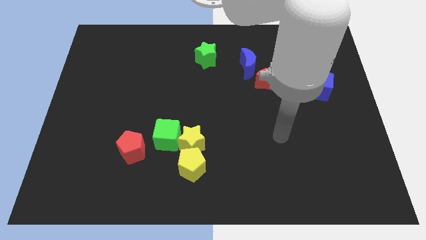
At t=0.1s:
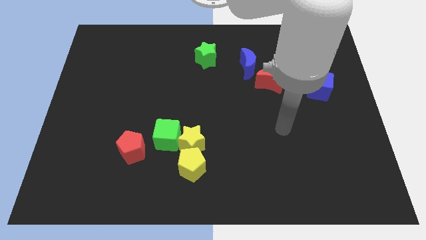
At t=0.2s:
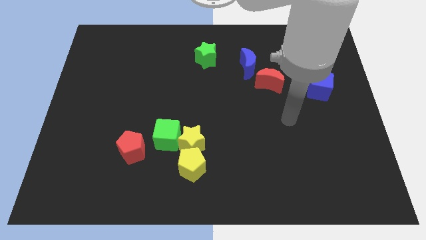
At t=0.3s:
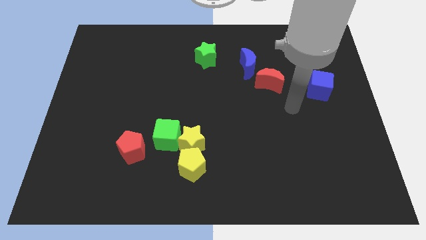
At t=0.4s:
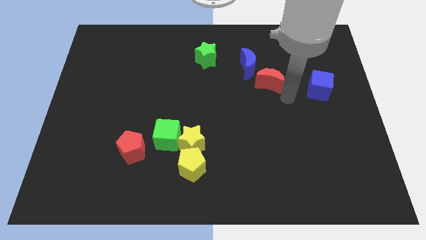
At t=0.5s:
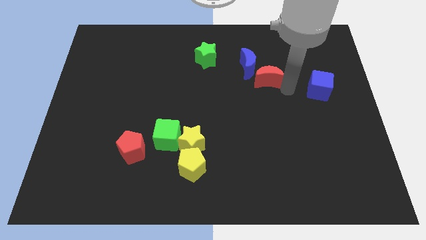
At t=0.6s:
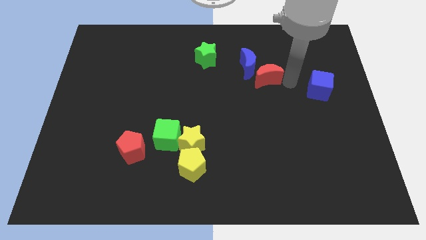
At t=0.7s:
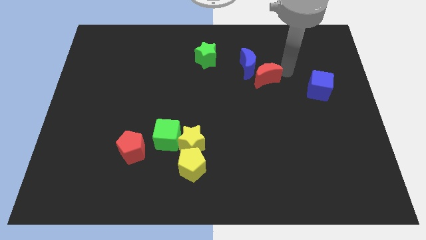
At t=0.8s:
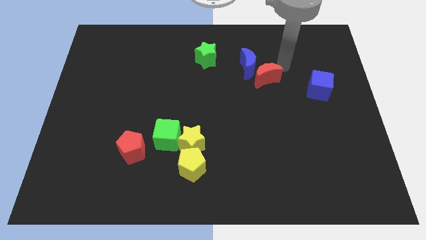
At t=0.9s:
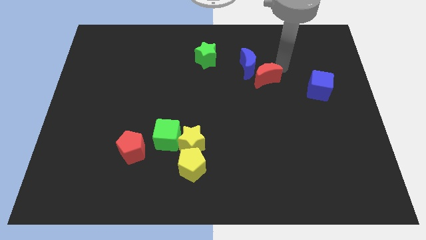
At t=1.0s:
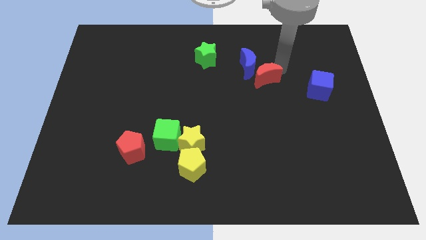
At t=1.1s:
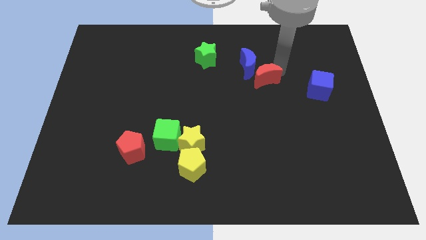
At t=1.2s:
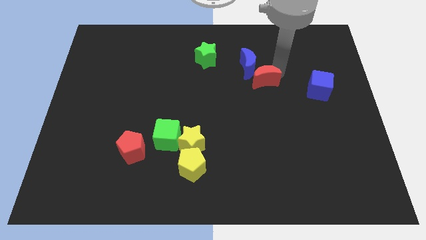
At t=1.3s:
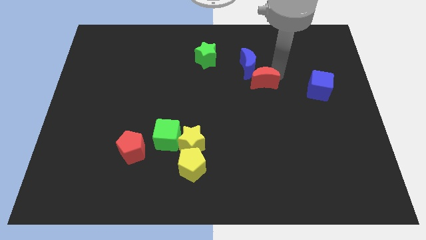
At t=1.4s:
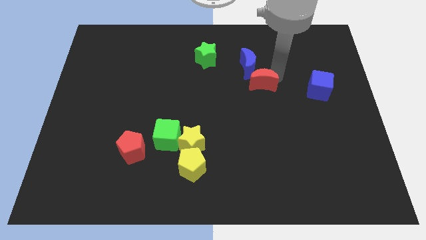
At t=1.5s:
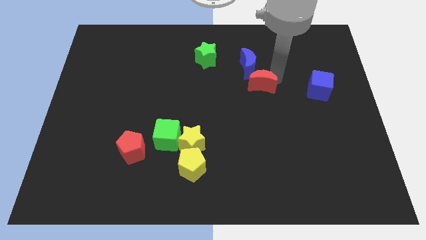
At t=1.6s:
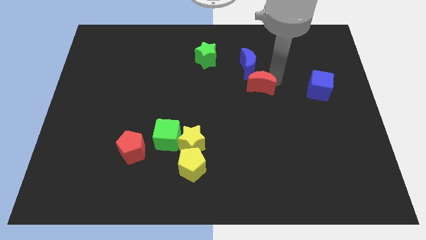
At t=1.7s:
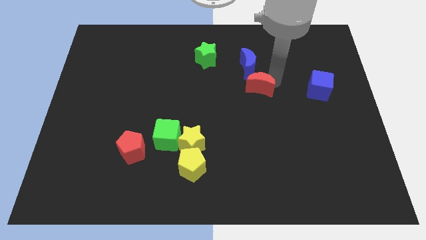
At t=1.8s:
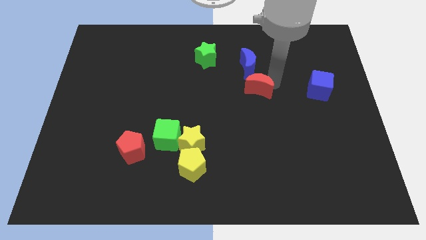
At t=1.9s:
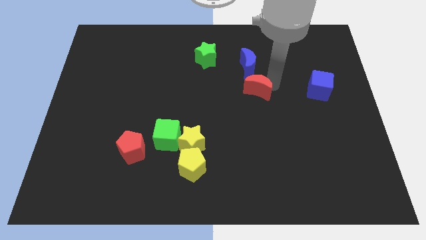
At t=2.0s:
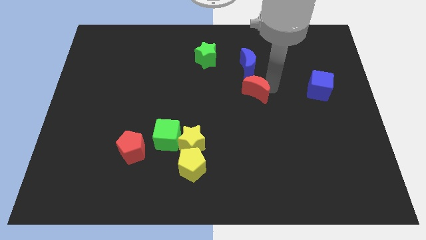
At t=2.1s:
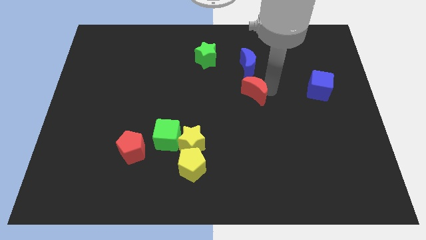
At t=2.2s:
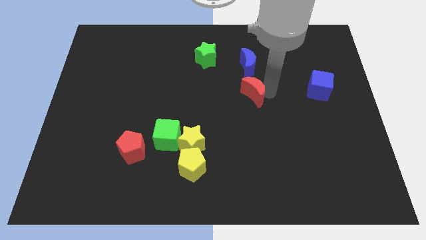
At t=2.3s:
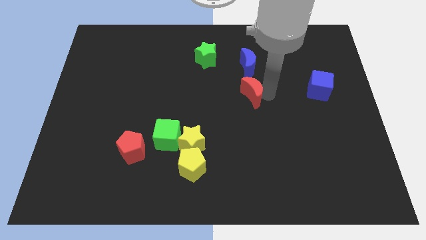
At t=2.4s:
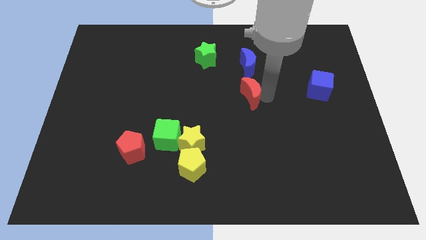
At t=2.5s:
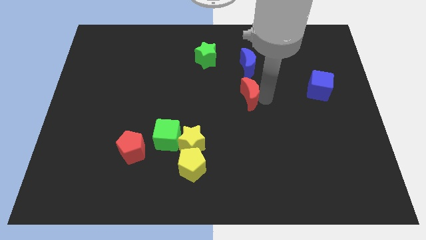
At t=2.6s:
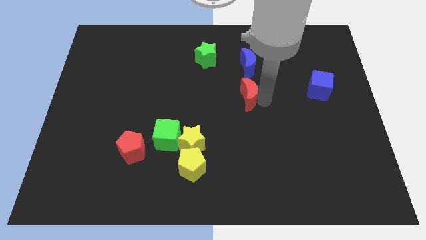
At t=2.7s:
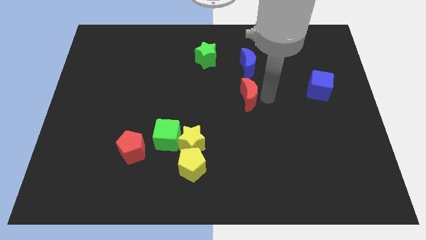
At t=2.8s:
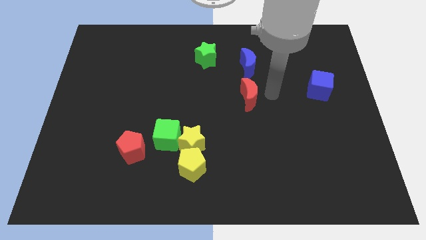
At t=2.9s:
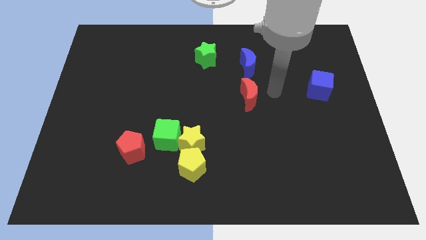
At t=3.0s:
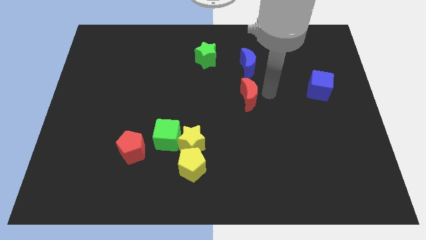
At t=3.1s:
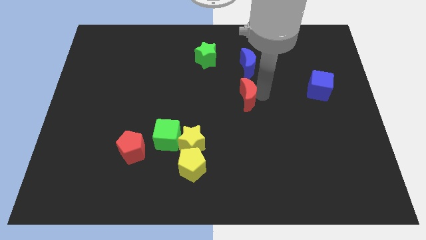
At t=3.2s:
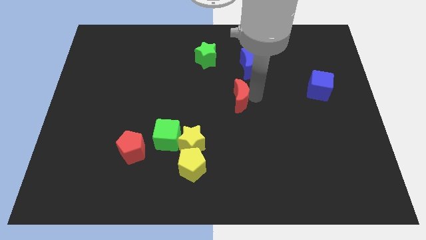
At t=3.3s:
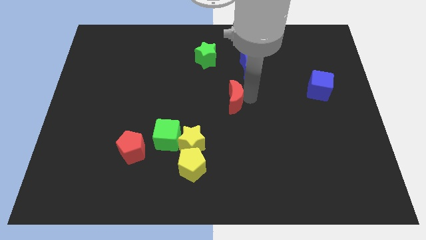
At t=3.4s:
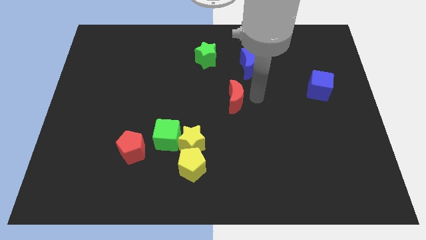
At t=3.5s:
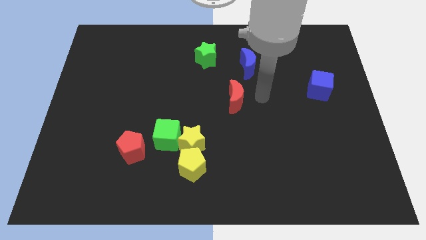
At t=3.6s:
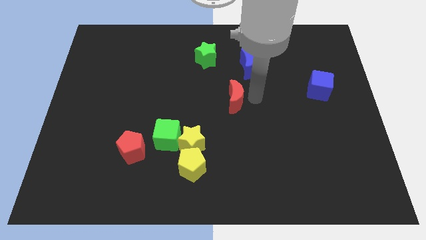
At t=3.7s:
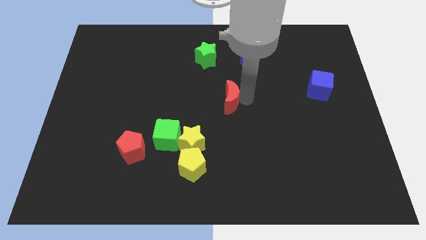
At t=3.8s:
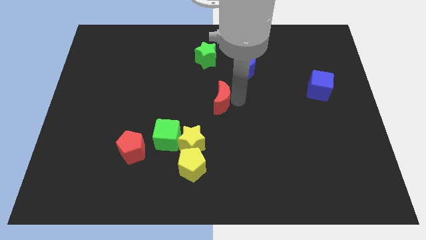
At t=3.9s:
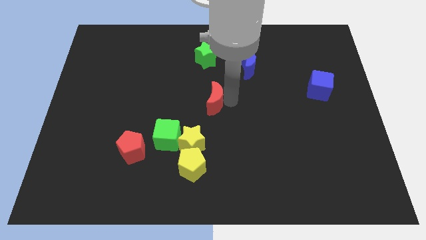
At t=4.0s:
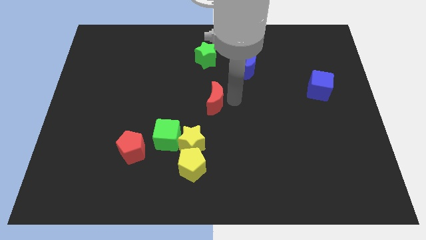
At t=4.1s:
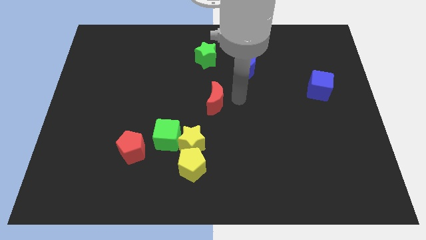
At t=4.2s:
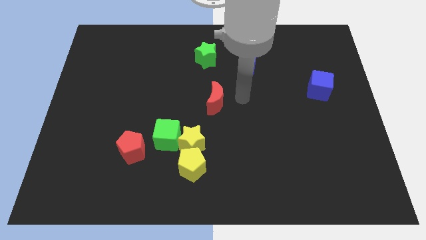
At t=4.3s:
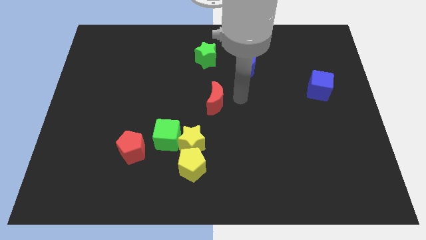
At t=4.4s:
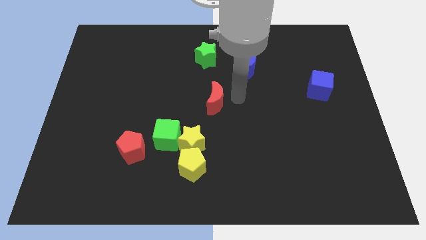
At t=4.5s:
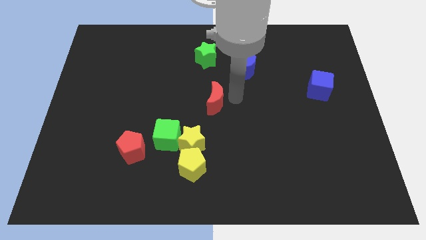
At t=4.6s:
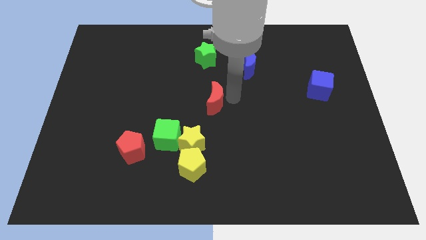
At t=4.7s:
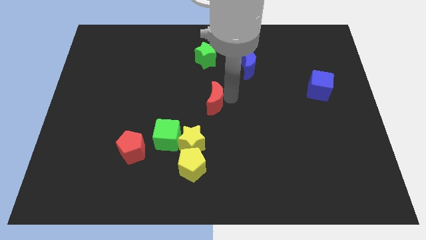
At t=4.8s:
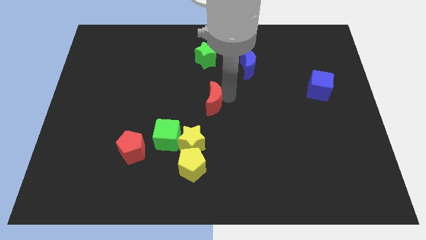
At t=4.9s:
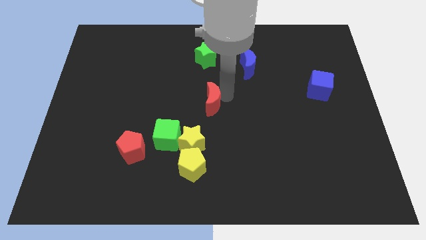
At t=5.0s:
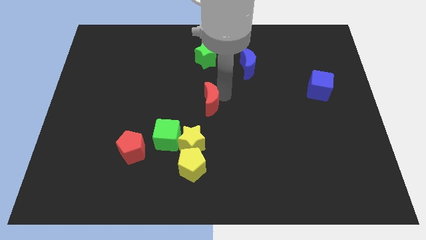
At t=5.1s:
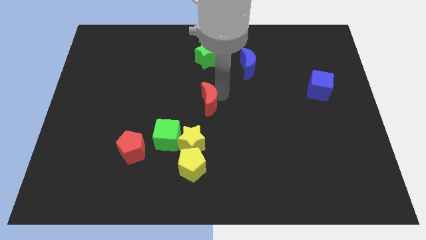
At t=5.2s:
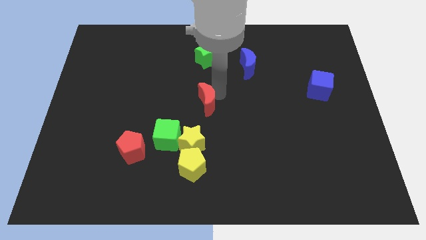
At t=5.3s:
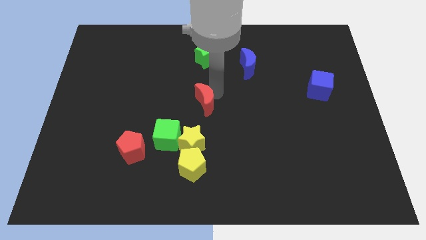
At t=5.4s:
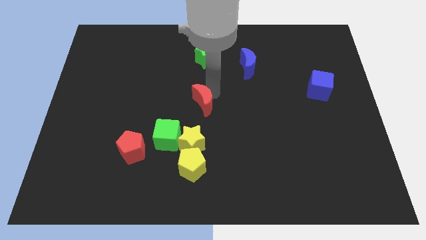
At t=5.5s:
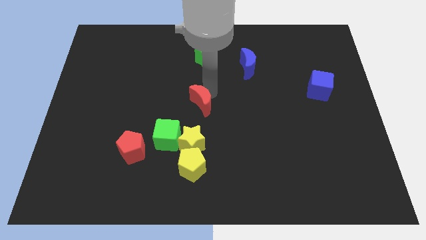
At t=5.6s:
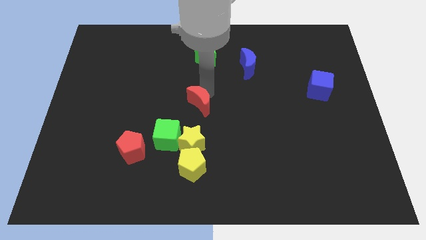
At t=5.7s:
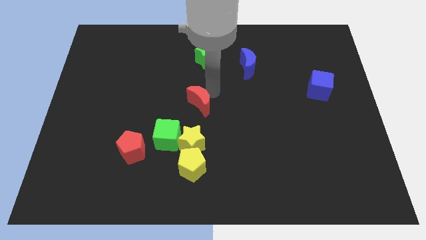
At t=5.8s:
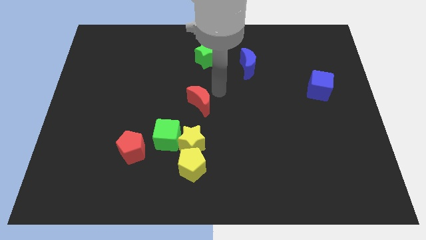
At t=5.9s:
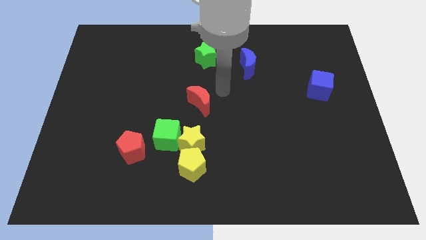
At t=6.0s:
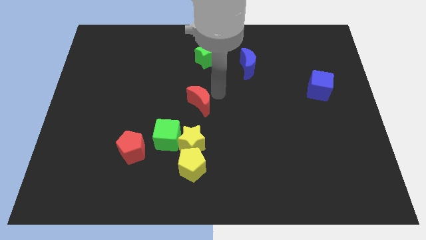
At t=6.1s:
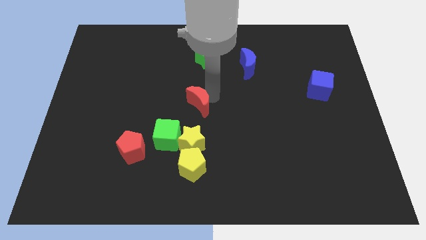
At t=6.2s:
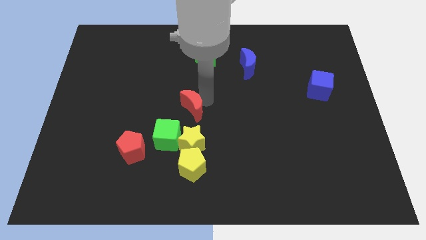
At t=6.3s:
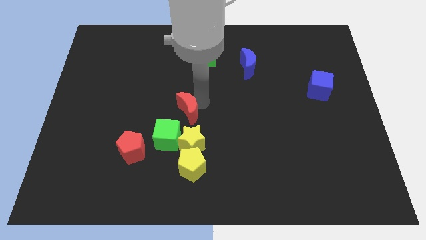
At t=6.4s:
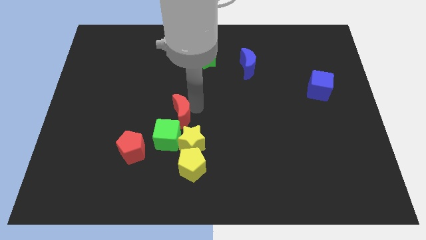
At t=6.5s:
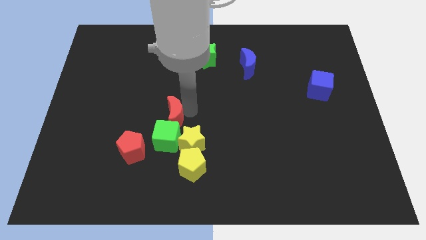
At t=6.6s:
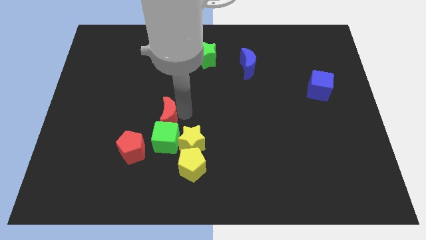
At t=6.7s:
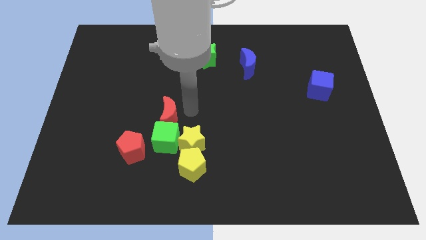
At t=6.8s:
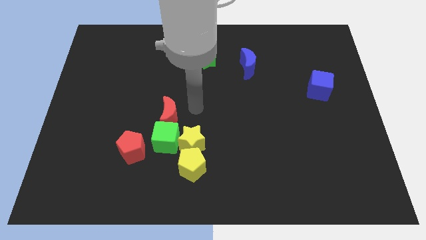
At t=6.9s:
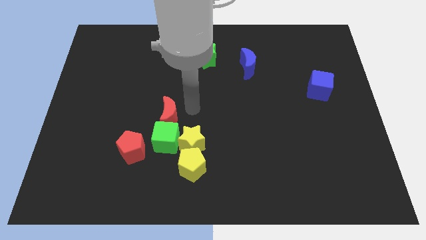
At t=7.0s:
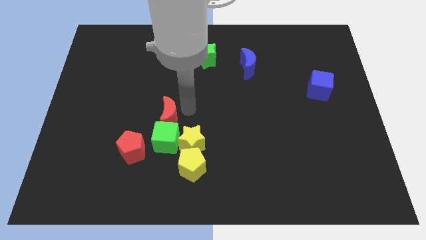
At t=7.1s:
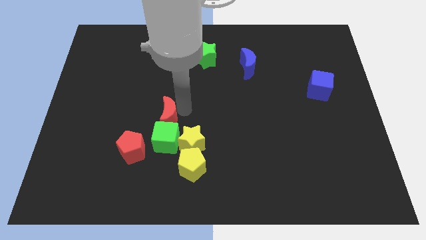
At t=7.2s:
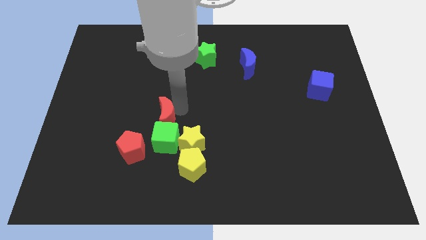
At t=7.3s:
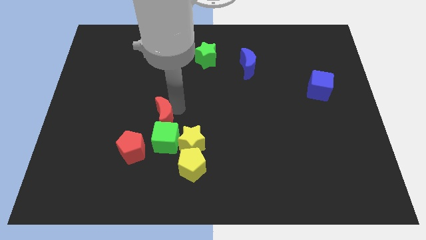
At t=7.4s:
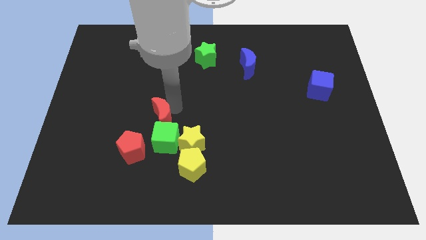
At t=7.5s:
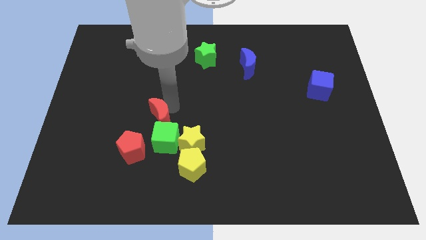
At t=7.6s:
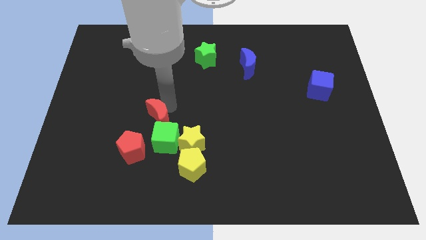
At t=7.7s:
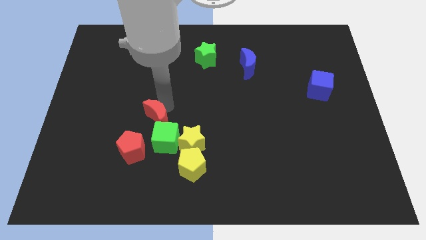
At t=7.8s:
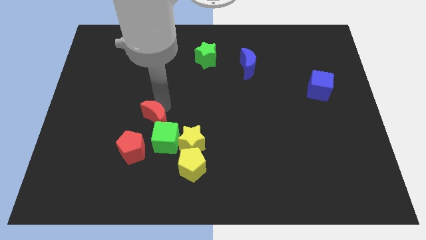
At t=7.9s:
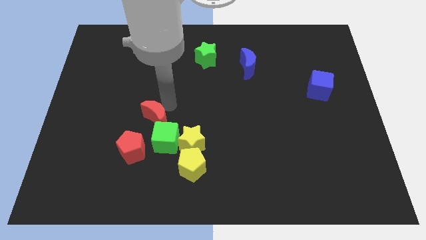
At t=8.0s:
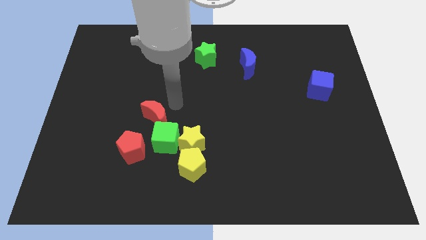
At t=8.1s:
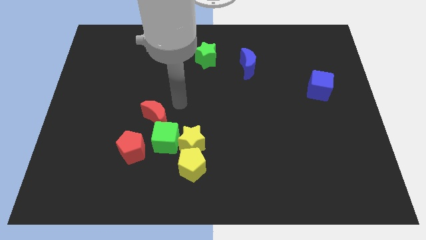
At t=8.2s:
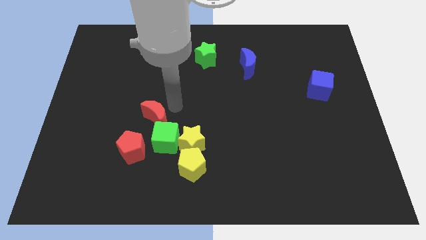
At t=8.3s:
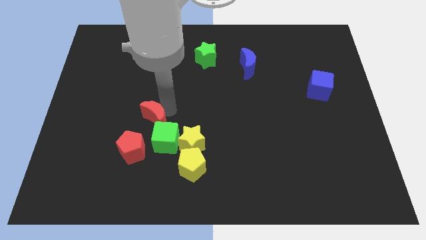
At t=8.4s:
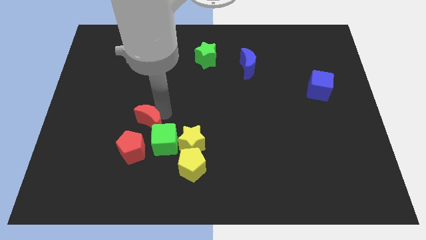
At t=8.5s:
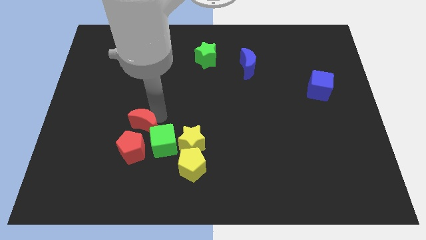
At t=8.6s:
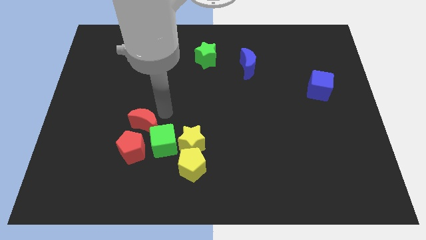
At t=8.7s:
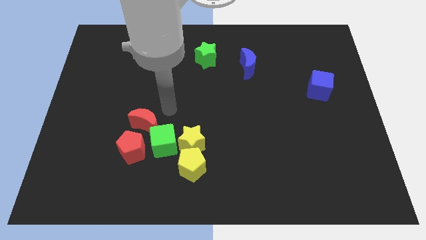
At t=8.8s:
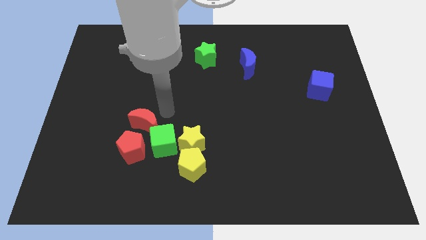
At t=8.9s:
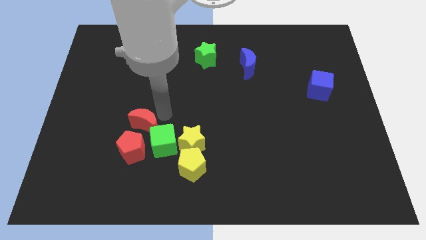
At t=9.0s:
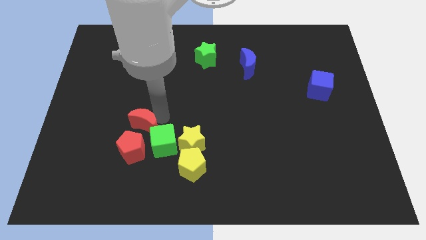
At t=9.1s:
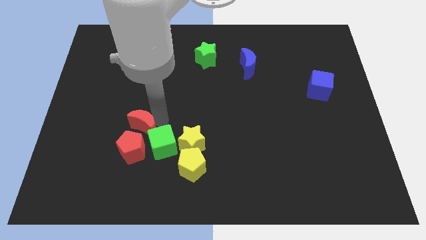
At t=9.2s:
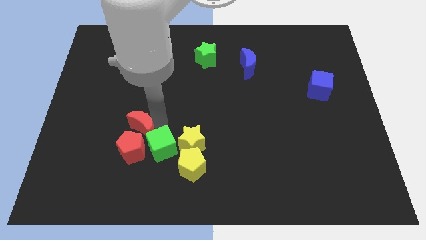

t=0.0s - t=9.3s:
push the red moon to the left of the green cube
